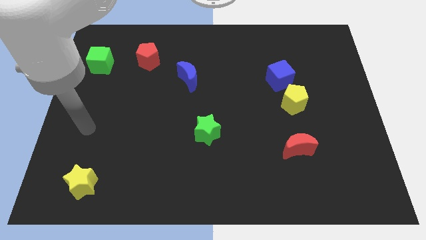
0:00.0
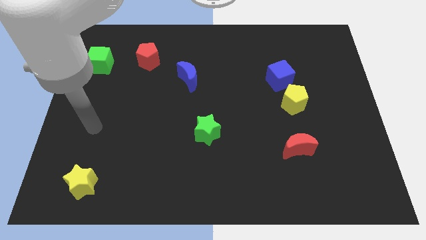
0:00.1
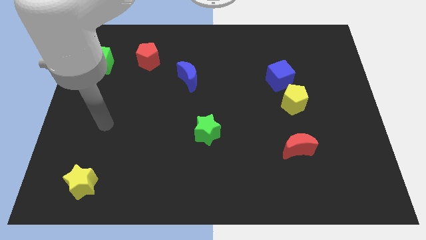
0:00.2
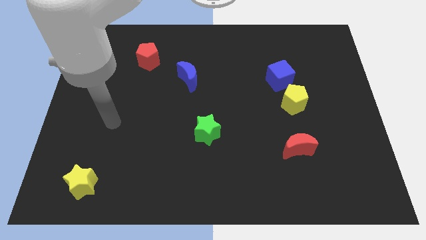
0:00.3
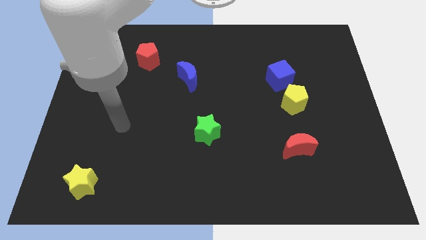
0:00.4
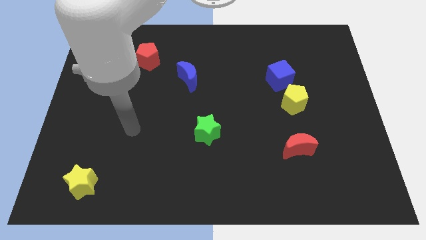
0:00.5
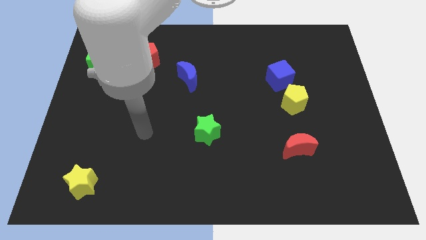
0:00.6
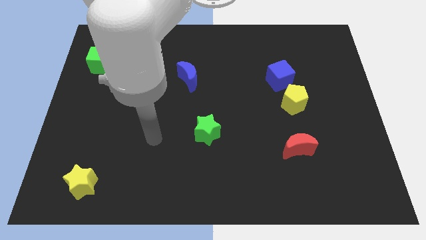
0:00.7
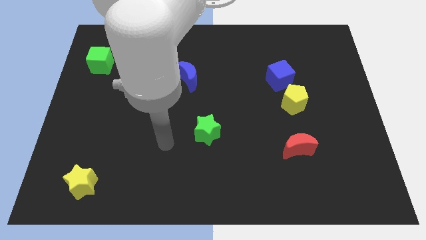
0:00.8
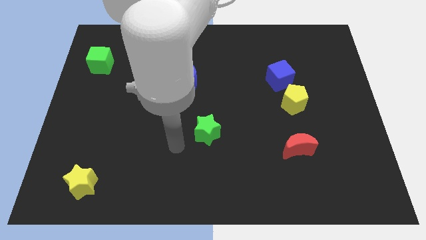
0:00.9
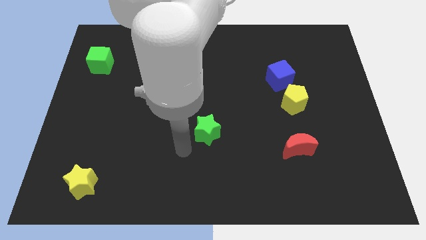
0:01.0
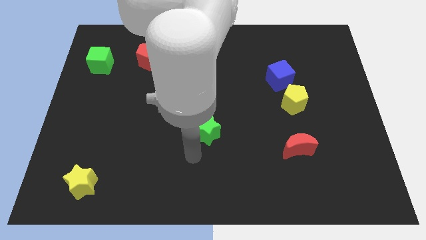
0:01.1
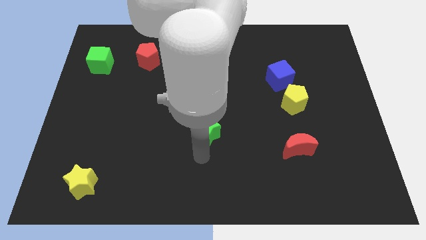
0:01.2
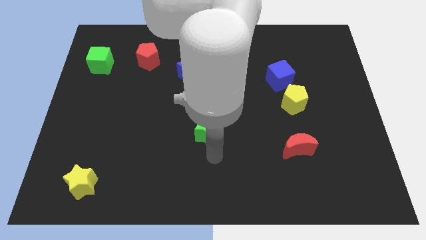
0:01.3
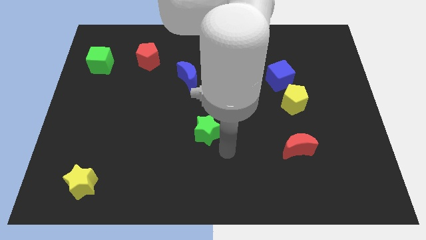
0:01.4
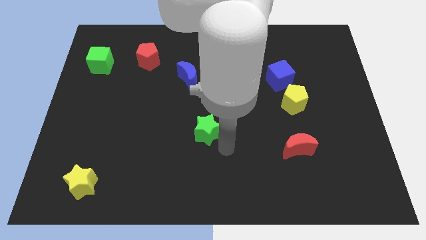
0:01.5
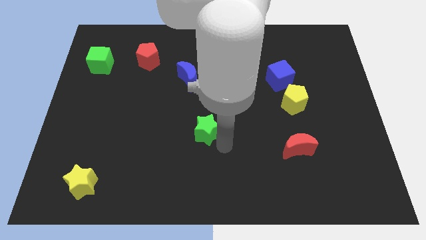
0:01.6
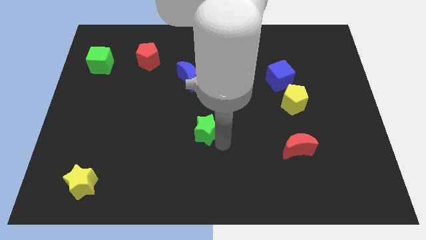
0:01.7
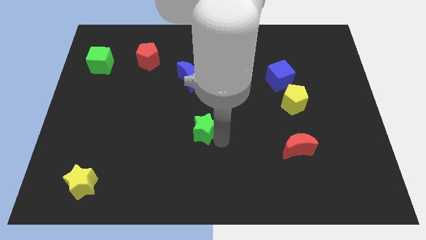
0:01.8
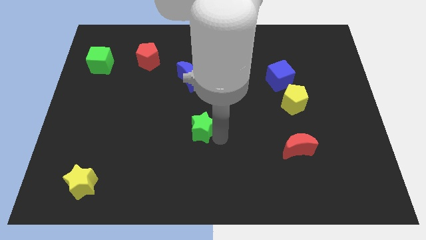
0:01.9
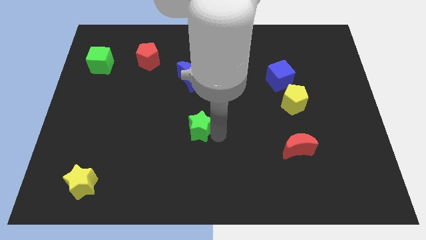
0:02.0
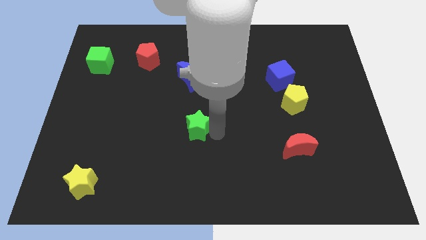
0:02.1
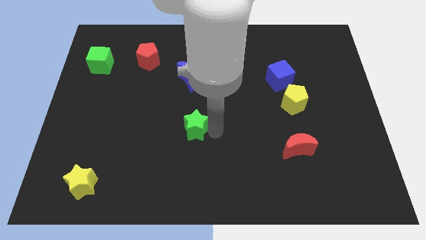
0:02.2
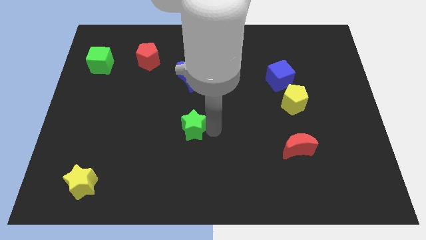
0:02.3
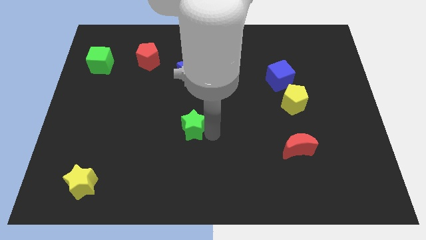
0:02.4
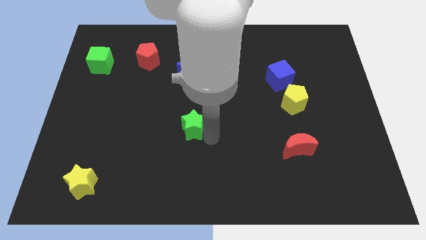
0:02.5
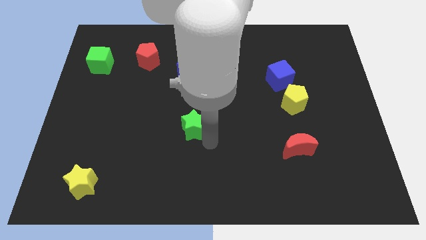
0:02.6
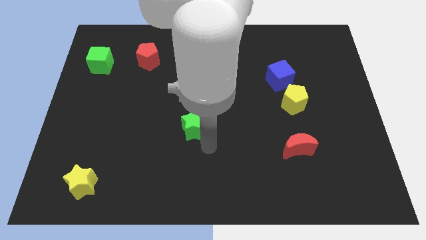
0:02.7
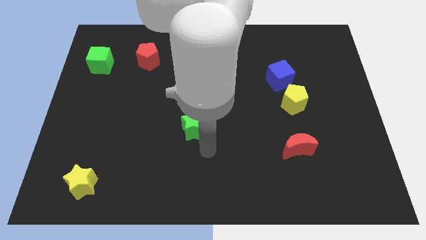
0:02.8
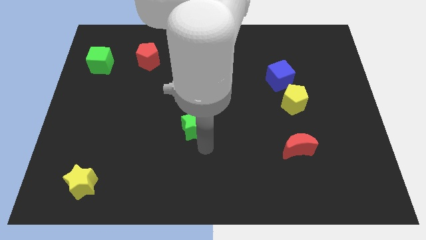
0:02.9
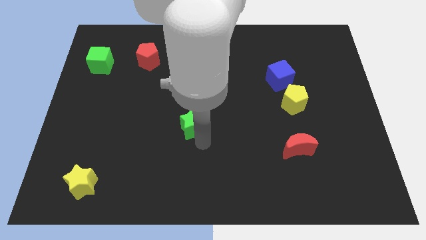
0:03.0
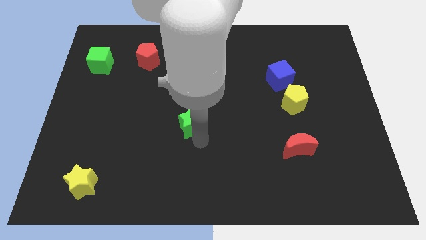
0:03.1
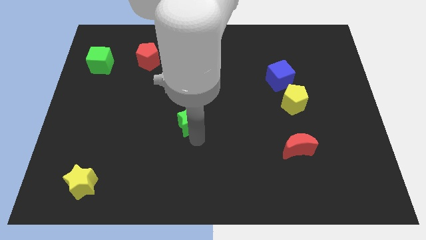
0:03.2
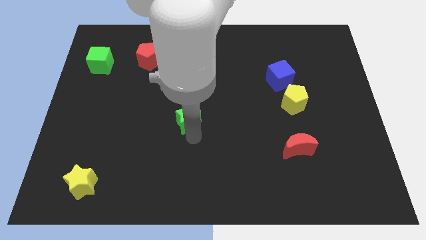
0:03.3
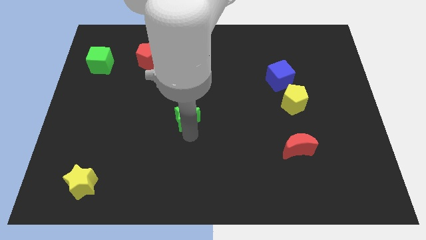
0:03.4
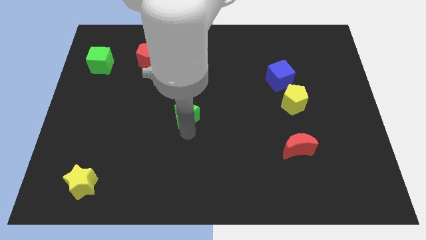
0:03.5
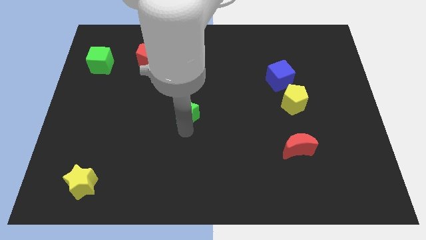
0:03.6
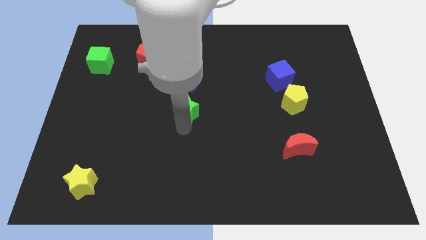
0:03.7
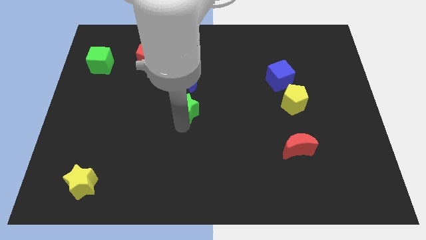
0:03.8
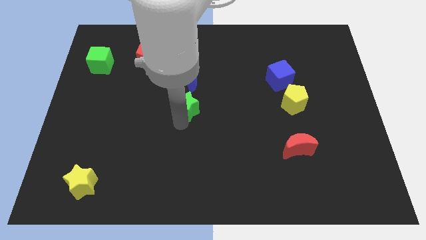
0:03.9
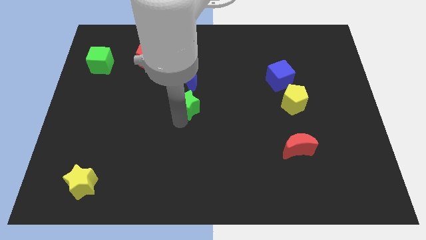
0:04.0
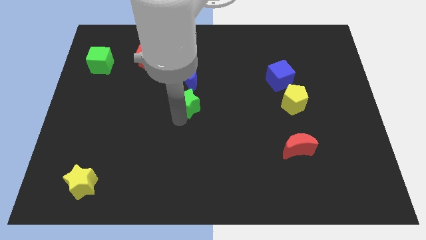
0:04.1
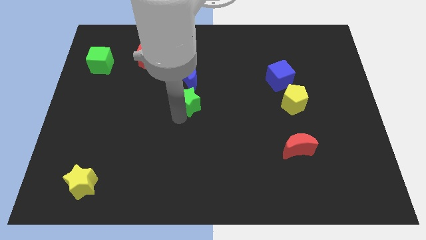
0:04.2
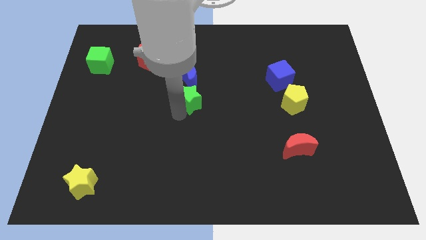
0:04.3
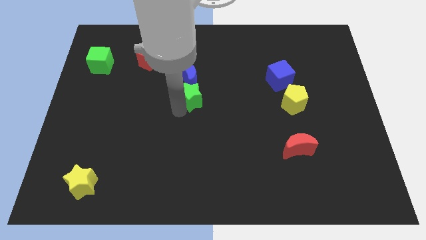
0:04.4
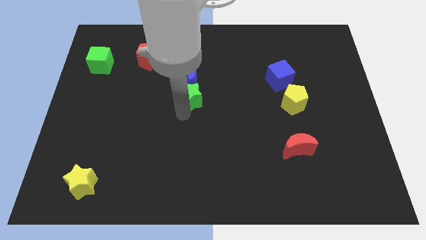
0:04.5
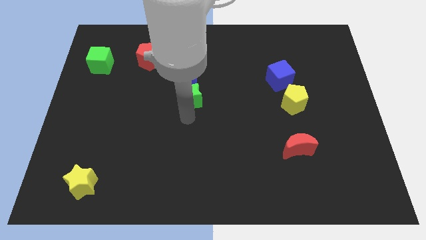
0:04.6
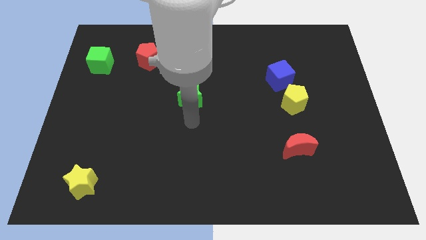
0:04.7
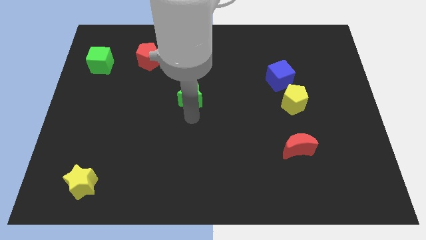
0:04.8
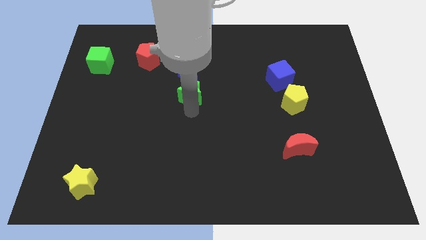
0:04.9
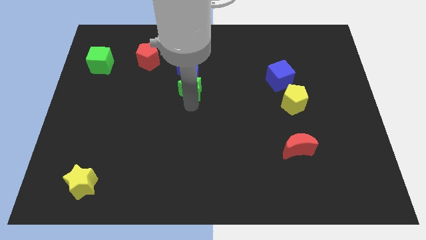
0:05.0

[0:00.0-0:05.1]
put the green star to the blue moon

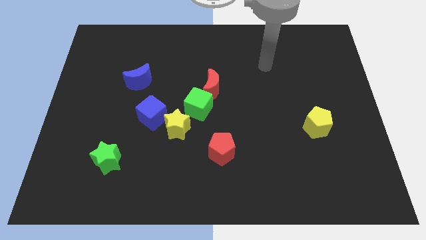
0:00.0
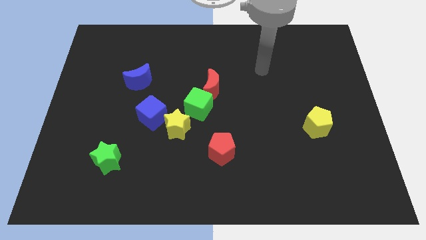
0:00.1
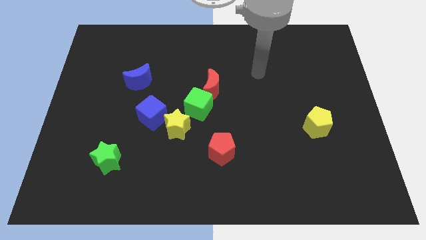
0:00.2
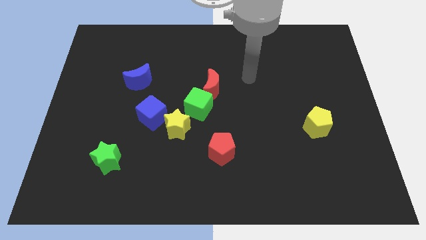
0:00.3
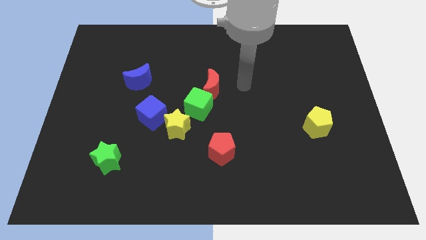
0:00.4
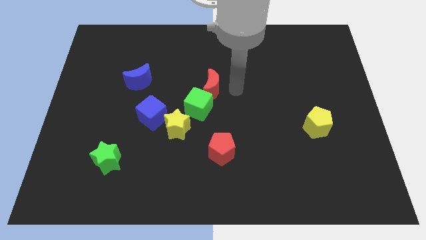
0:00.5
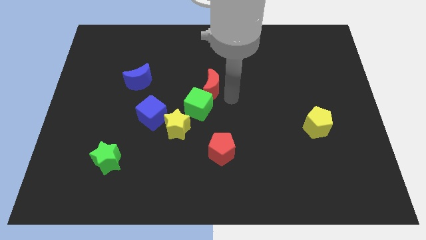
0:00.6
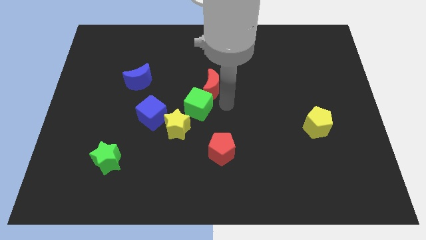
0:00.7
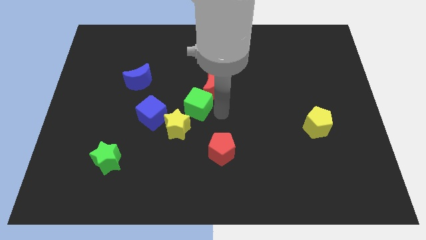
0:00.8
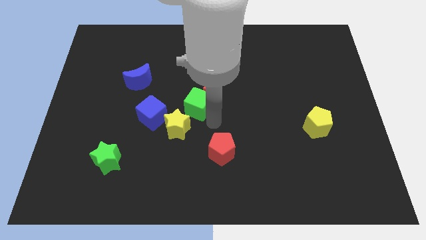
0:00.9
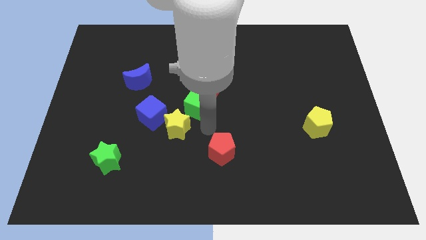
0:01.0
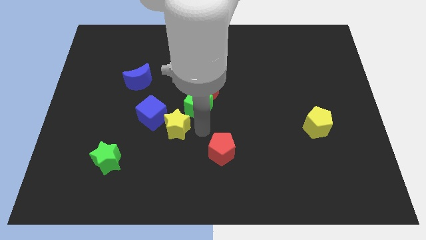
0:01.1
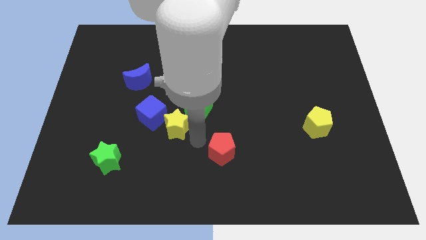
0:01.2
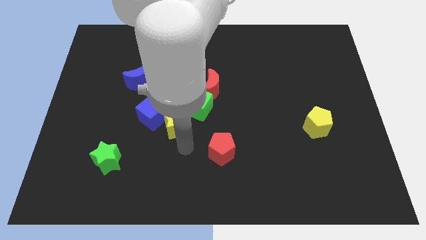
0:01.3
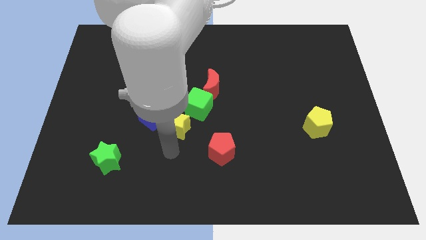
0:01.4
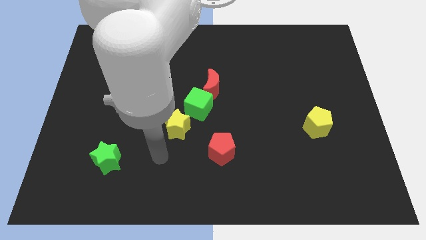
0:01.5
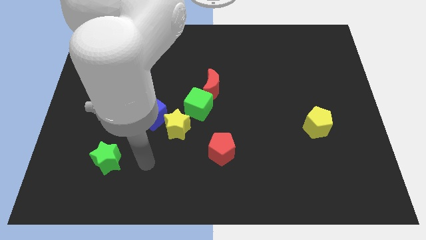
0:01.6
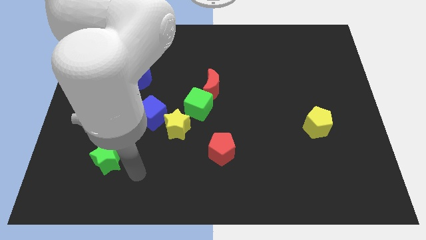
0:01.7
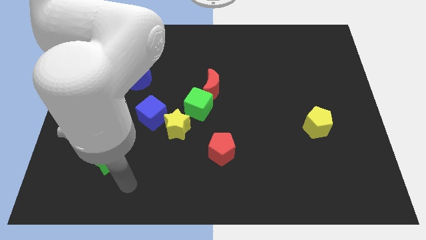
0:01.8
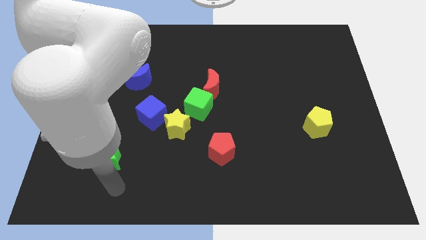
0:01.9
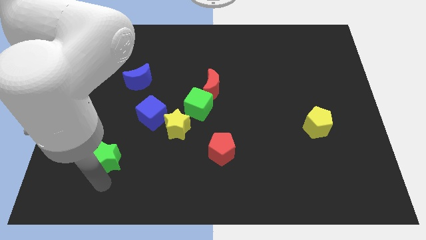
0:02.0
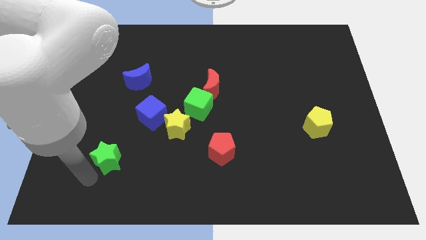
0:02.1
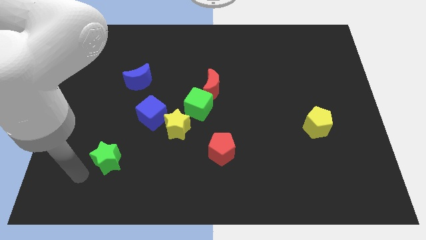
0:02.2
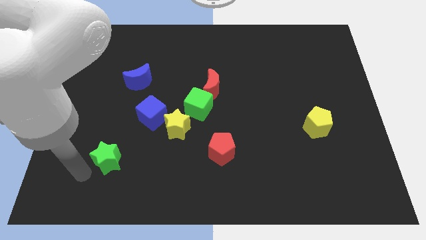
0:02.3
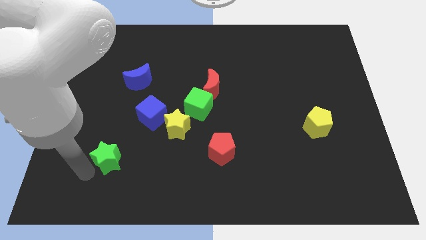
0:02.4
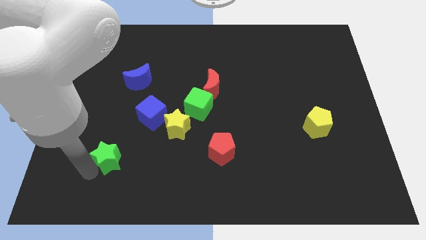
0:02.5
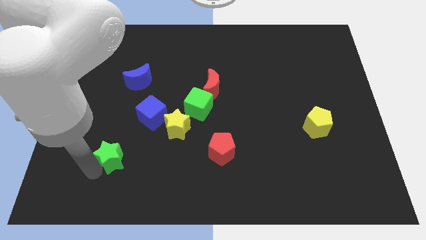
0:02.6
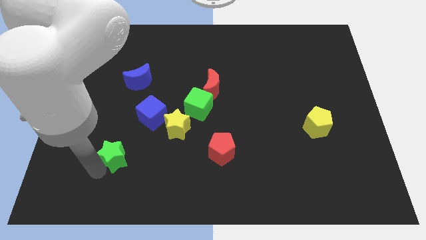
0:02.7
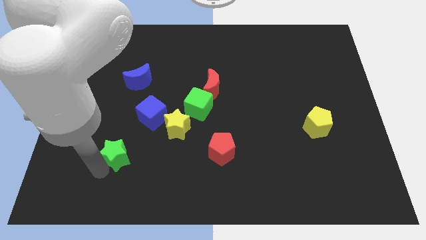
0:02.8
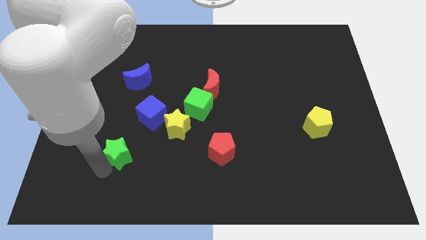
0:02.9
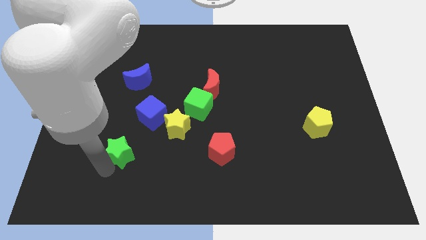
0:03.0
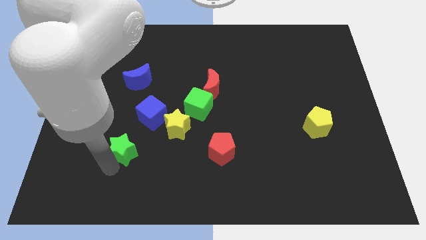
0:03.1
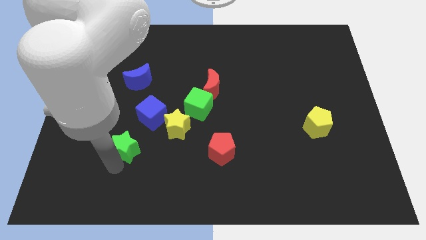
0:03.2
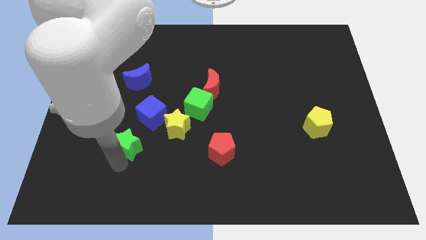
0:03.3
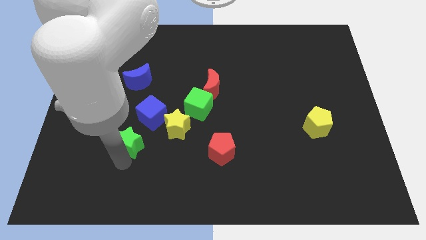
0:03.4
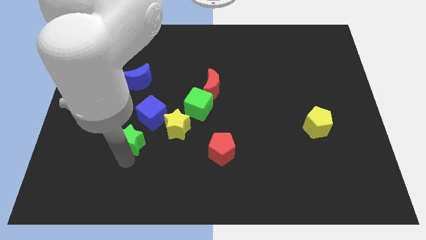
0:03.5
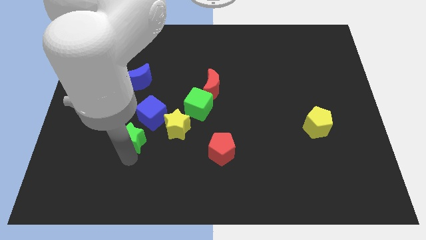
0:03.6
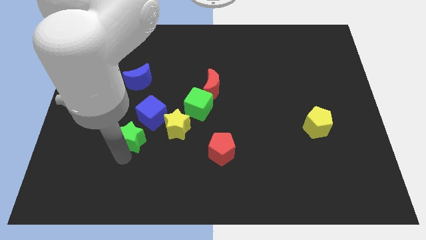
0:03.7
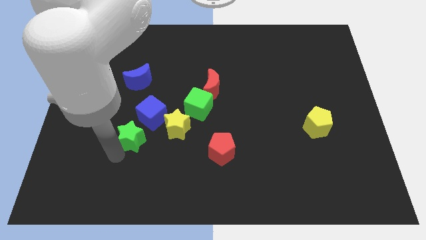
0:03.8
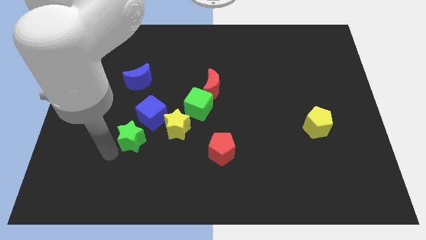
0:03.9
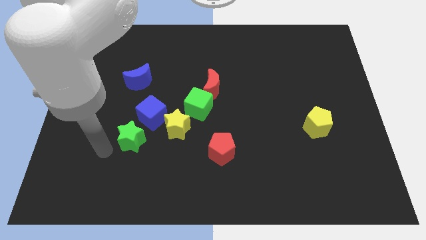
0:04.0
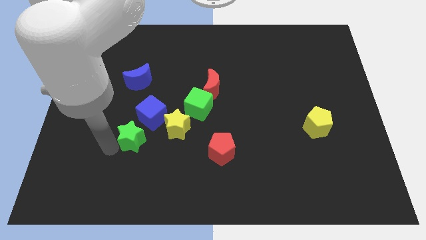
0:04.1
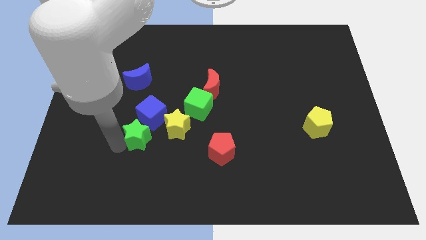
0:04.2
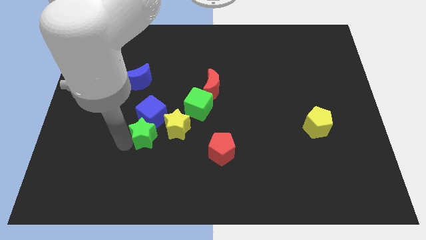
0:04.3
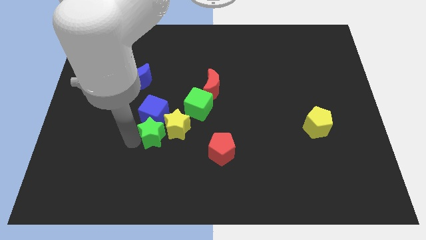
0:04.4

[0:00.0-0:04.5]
put the green star close to the yellow star
